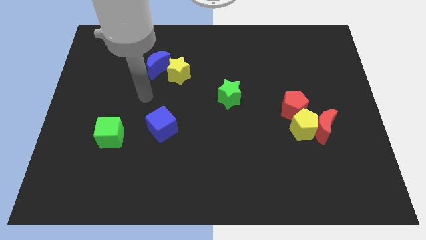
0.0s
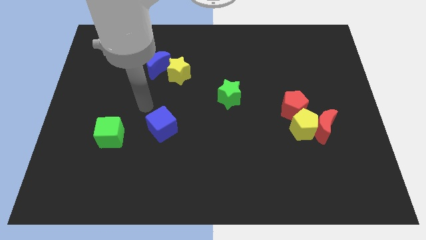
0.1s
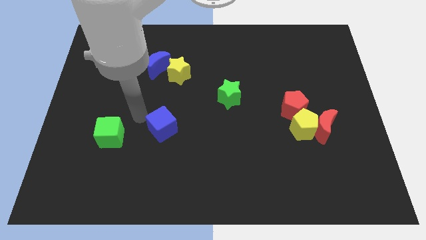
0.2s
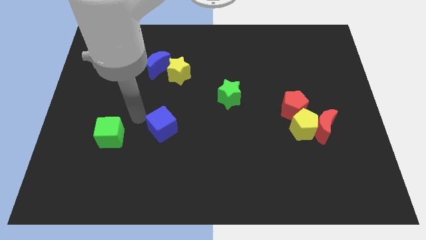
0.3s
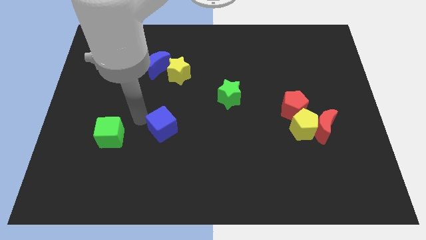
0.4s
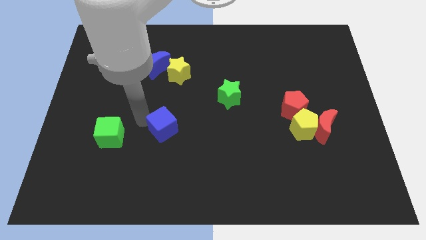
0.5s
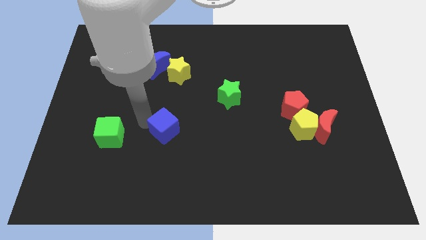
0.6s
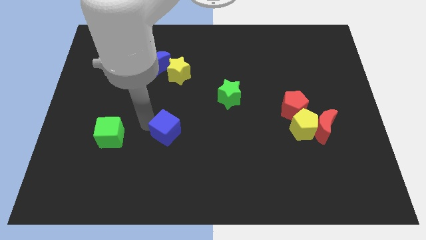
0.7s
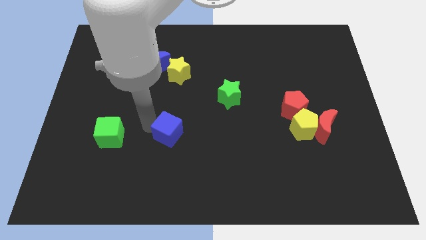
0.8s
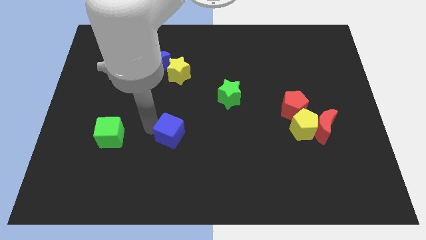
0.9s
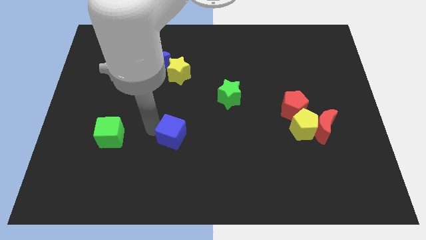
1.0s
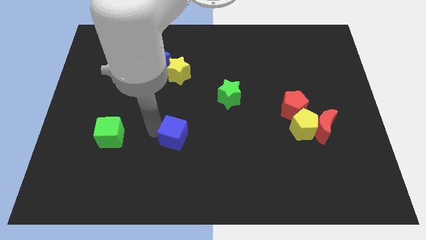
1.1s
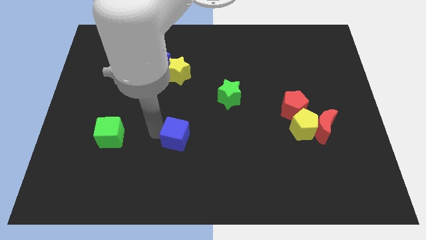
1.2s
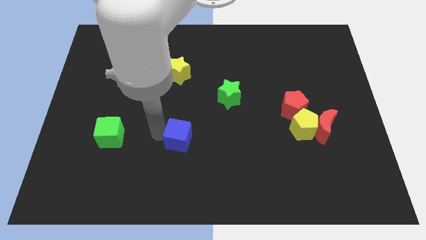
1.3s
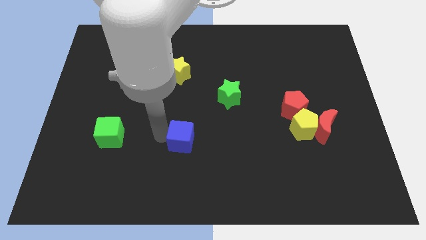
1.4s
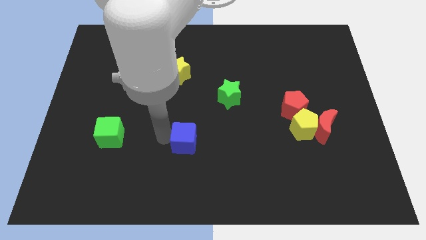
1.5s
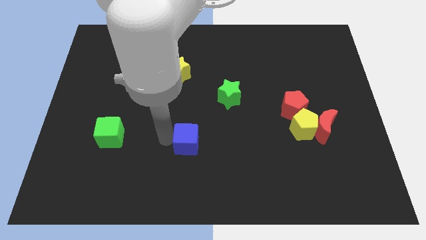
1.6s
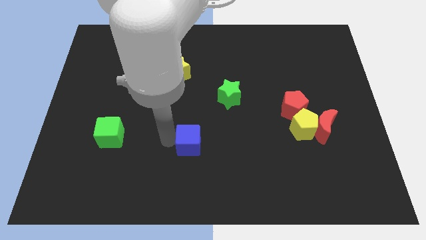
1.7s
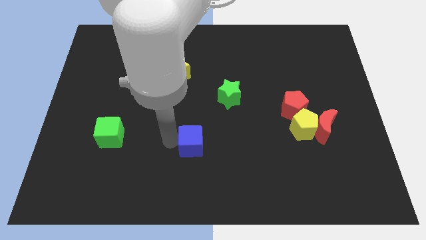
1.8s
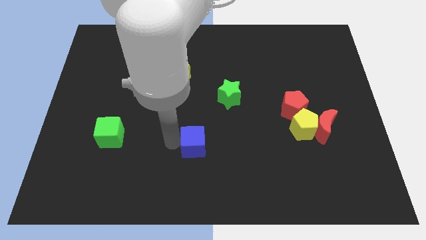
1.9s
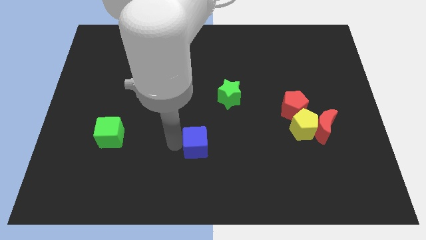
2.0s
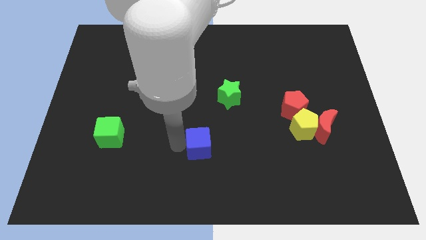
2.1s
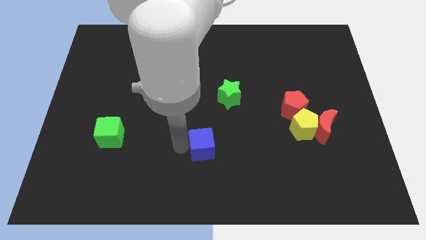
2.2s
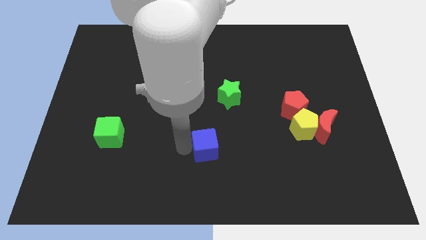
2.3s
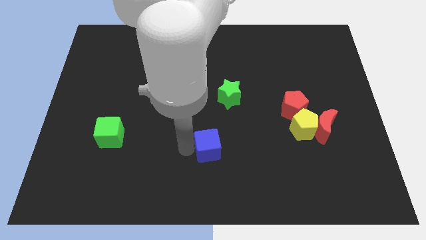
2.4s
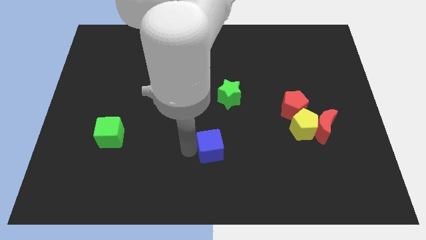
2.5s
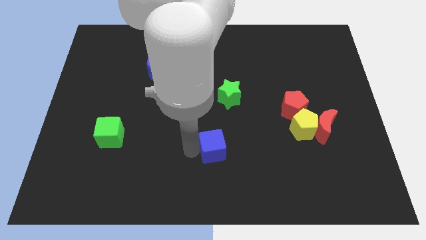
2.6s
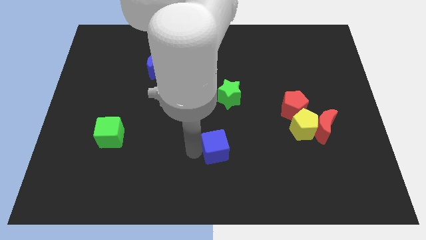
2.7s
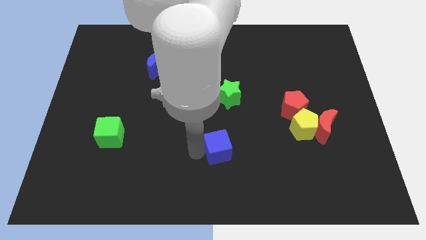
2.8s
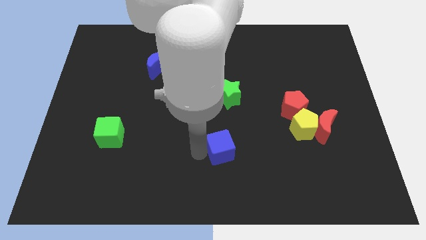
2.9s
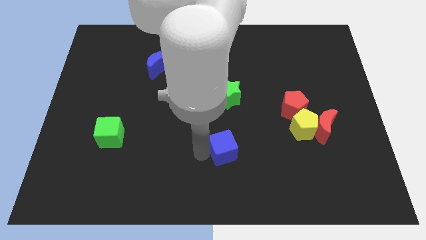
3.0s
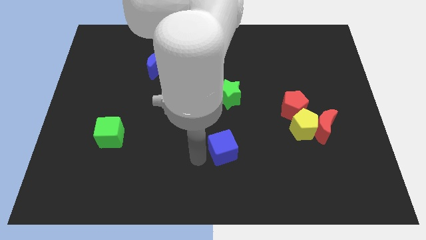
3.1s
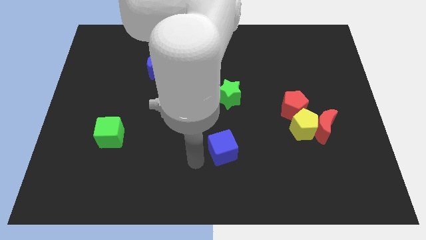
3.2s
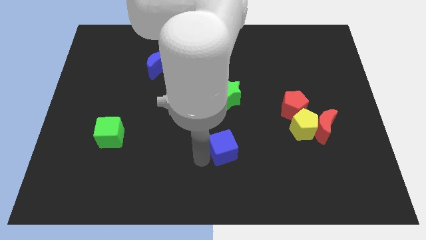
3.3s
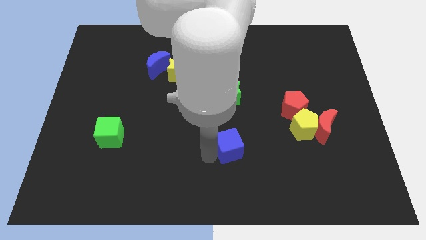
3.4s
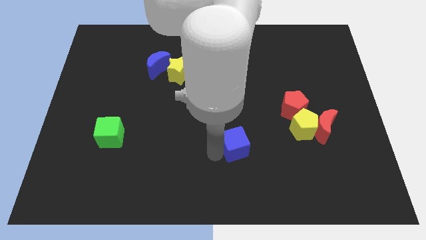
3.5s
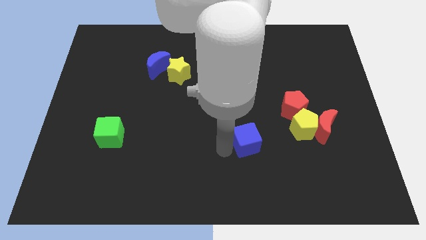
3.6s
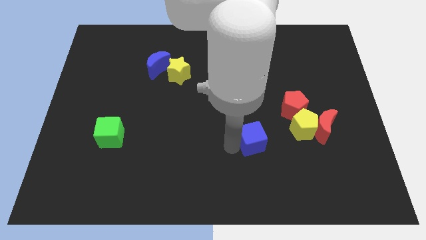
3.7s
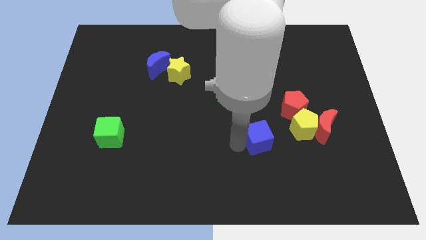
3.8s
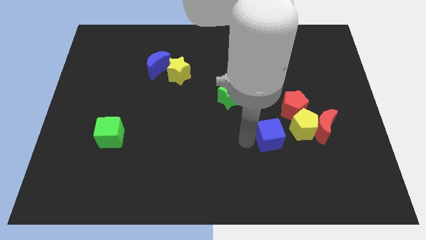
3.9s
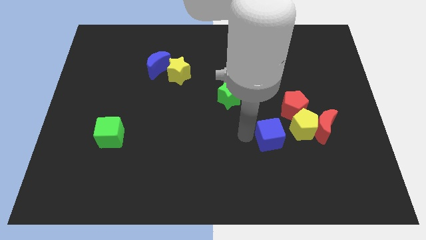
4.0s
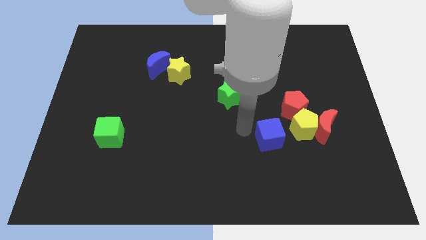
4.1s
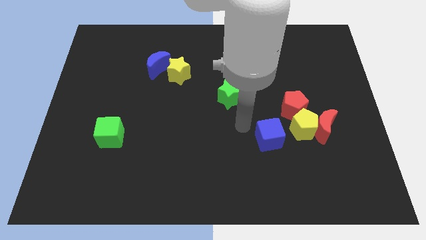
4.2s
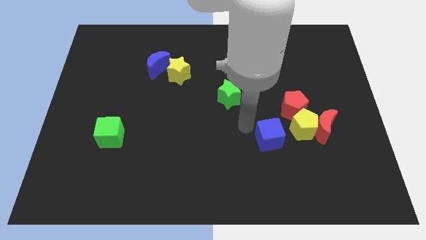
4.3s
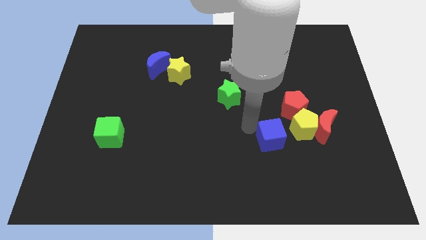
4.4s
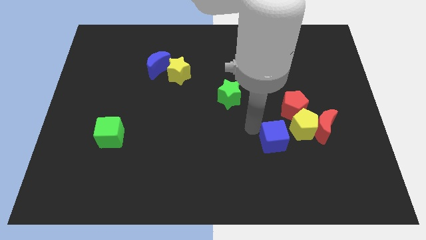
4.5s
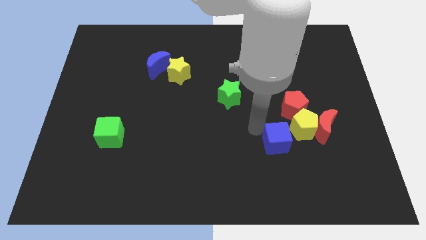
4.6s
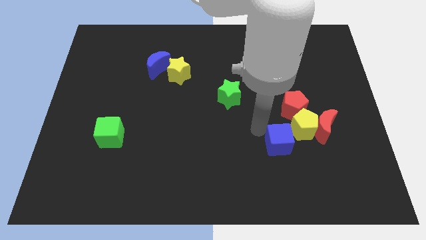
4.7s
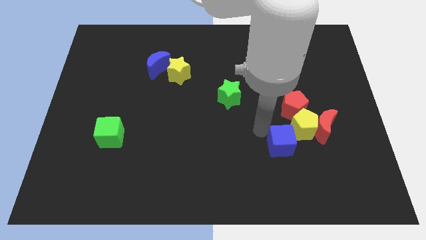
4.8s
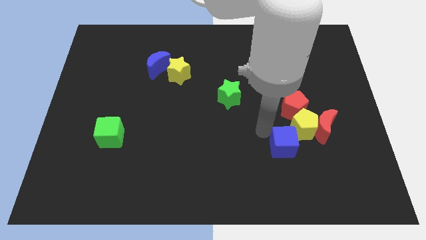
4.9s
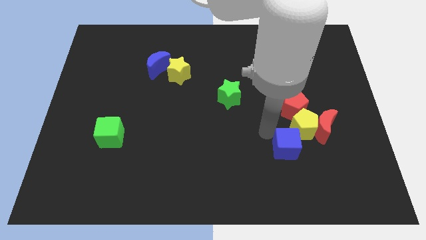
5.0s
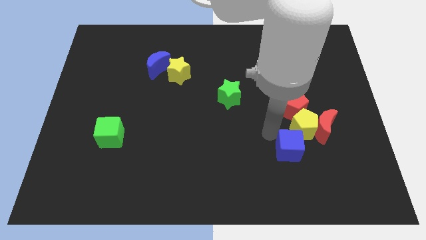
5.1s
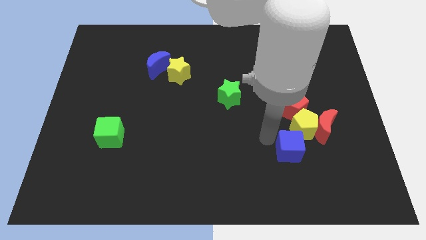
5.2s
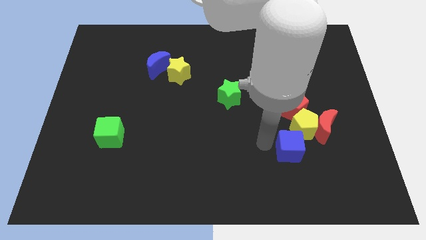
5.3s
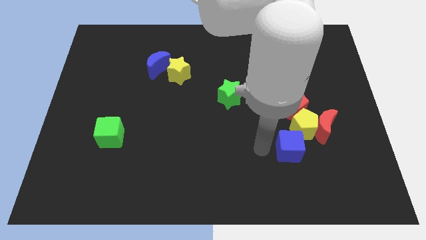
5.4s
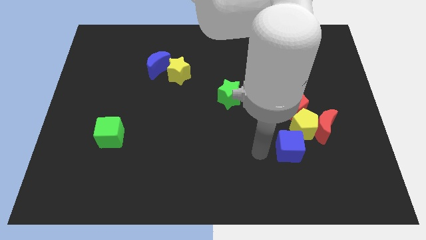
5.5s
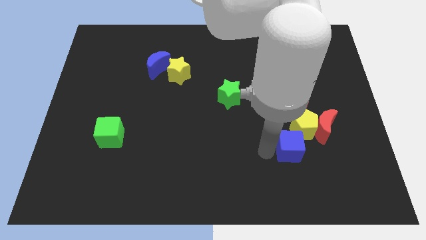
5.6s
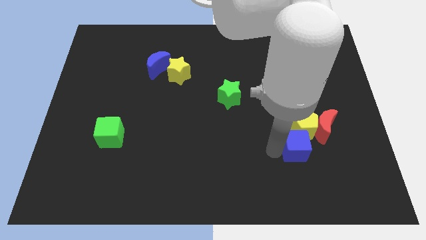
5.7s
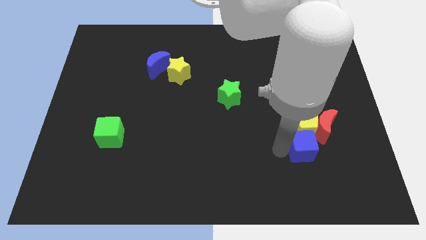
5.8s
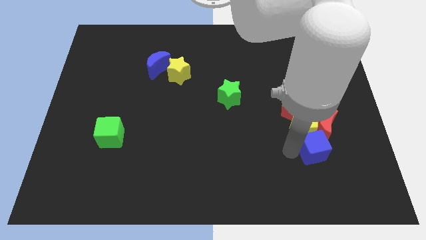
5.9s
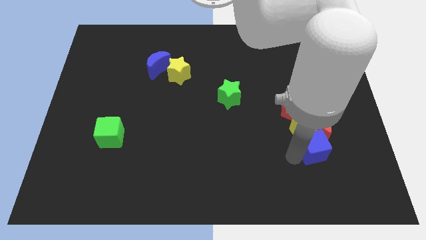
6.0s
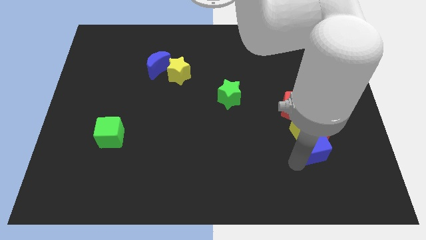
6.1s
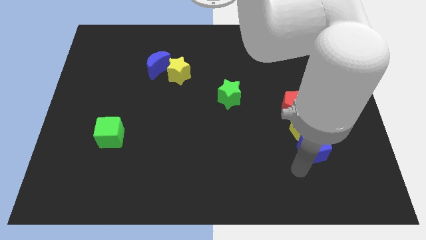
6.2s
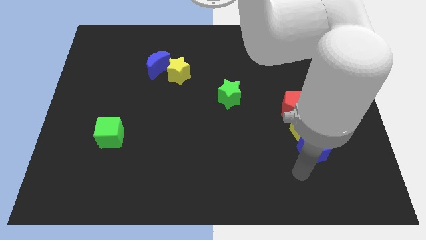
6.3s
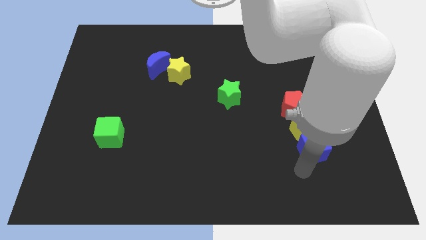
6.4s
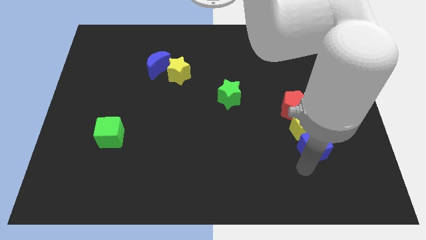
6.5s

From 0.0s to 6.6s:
slide the blue cube next to the red moon
